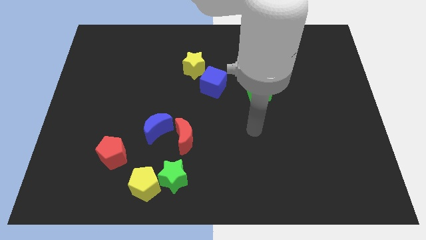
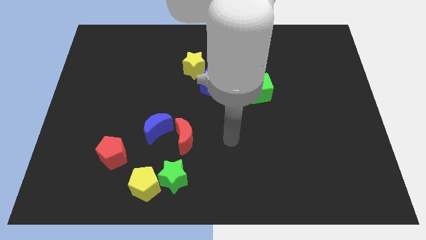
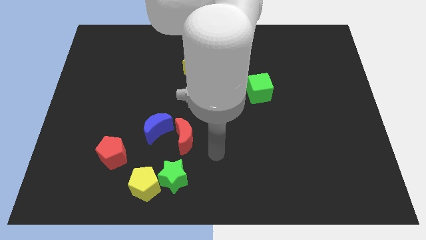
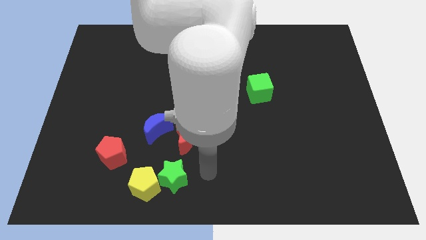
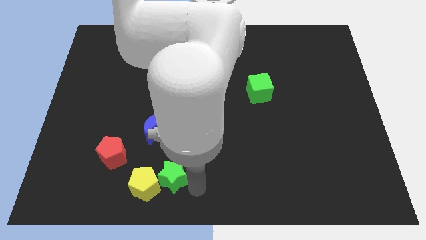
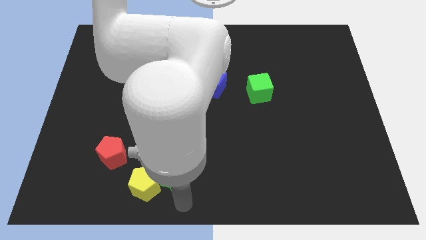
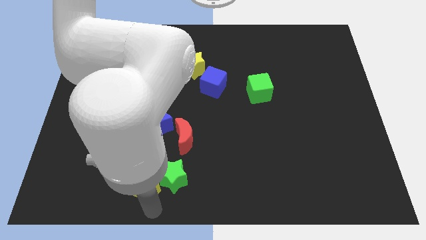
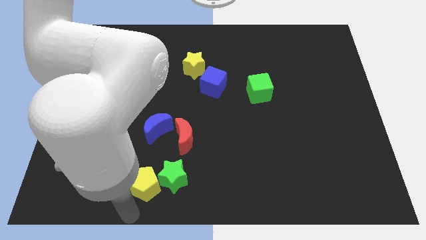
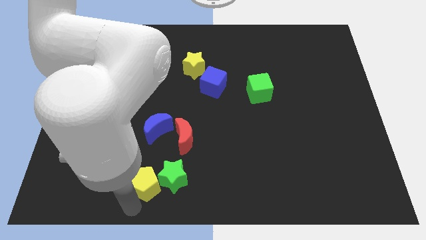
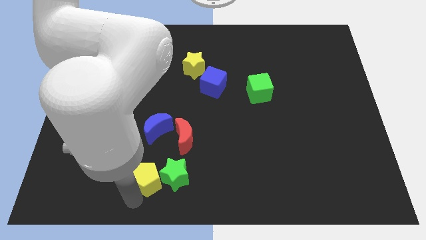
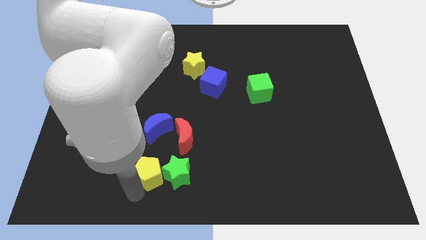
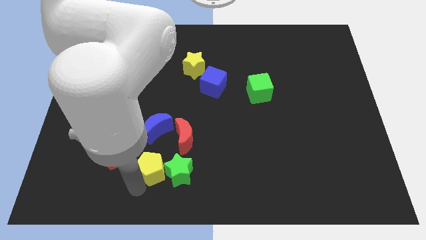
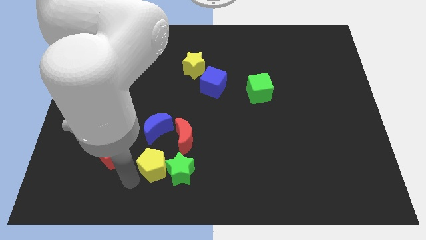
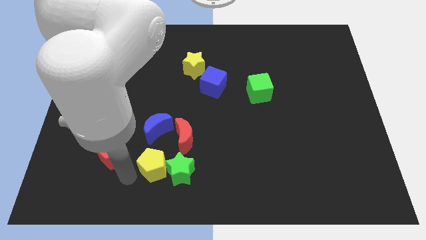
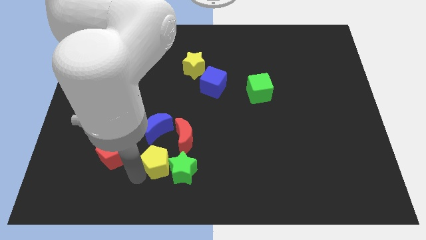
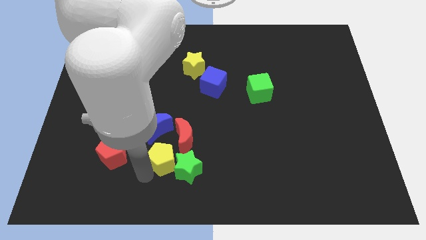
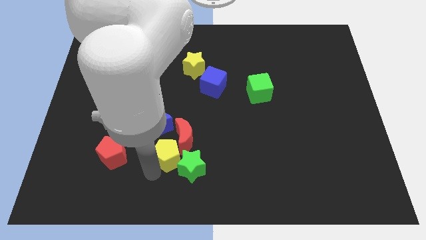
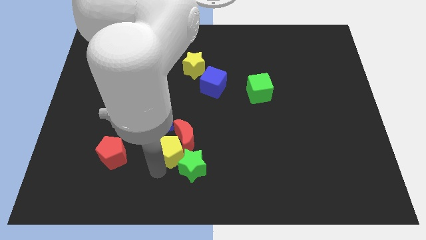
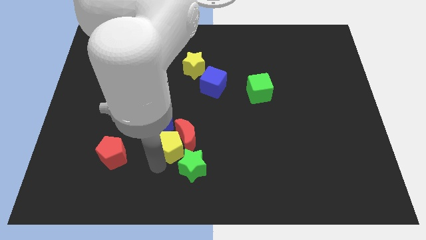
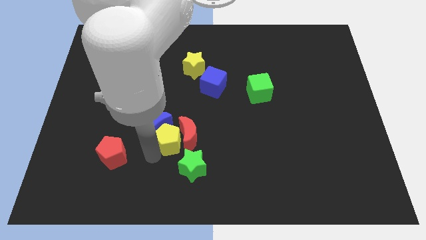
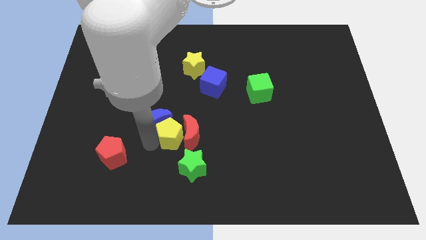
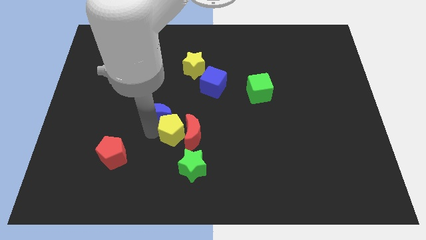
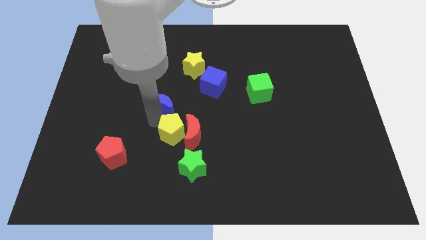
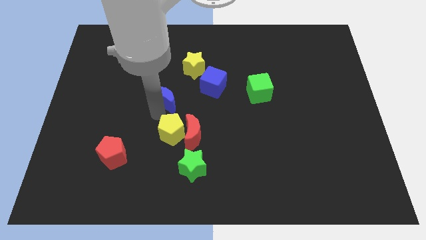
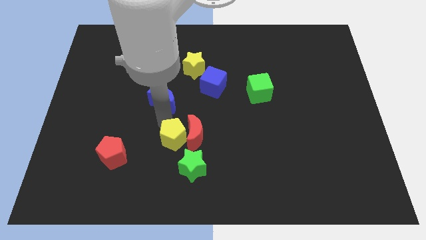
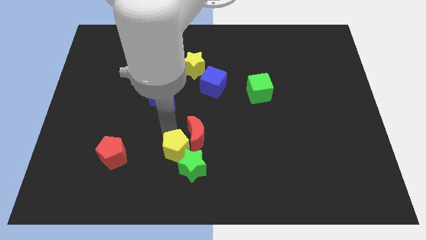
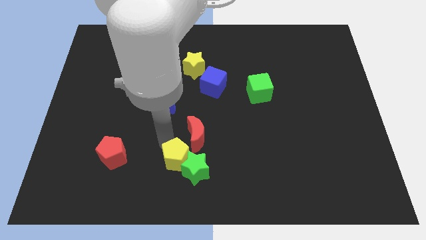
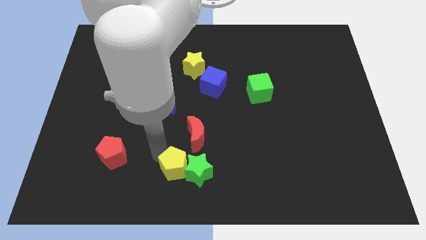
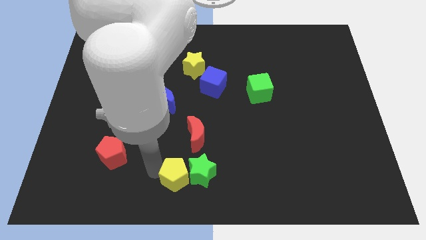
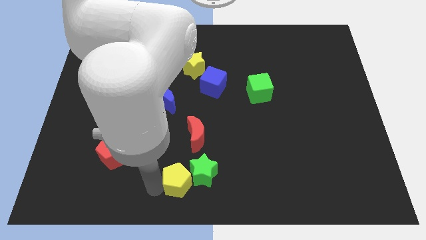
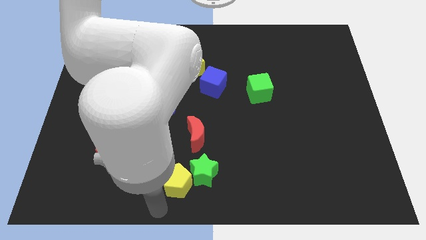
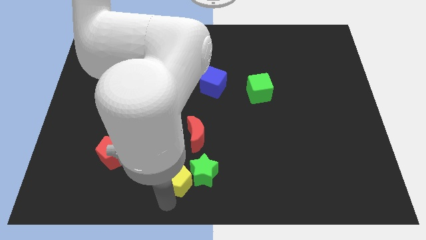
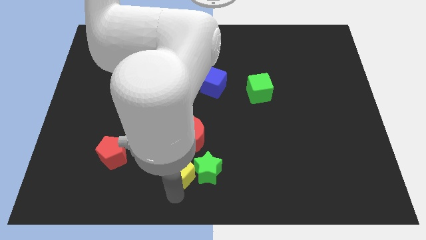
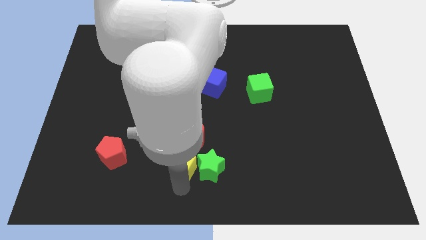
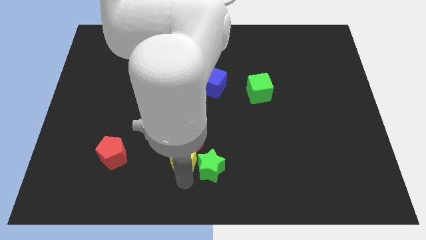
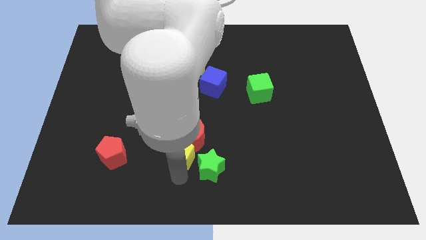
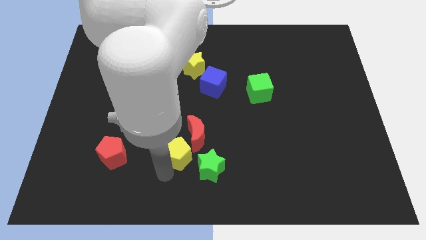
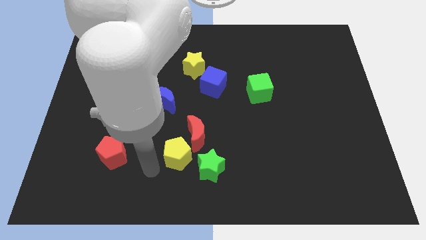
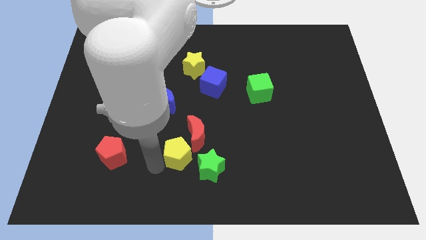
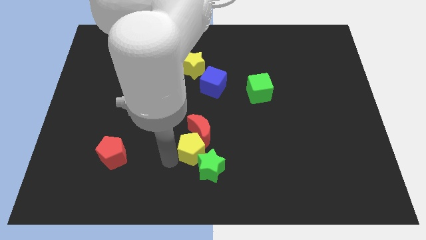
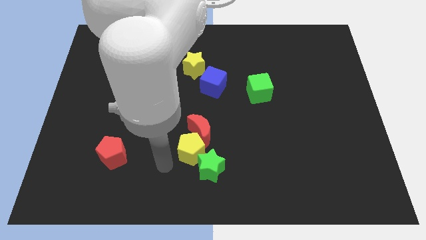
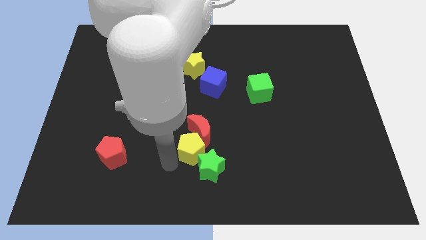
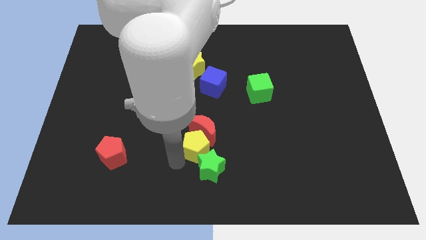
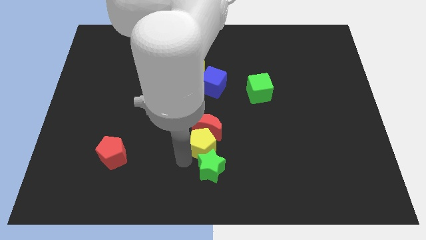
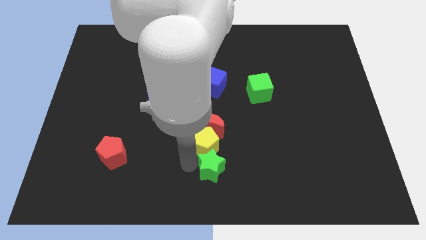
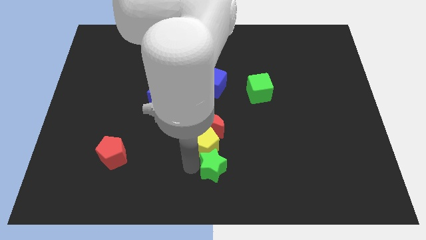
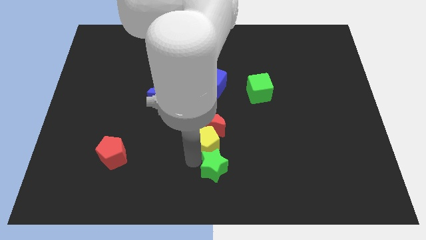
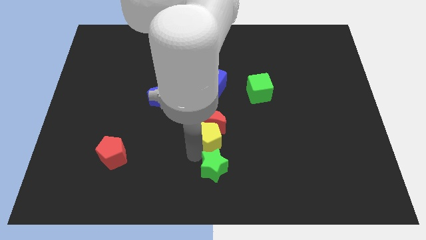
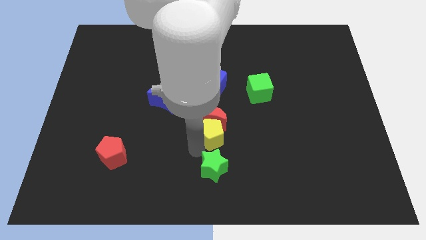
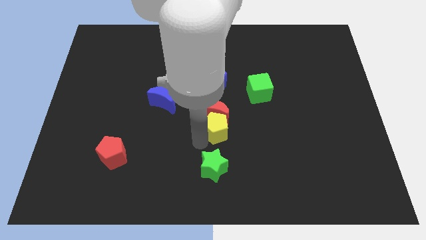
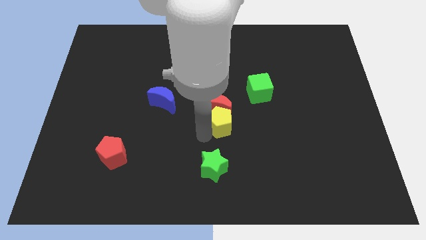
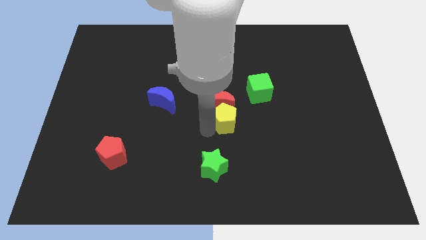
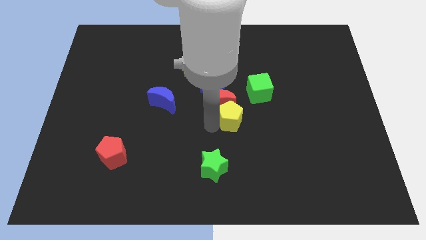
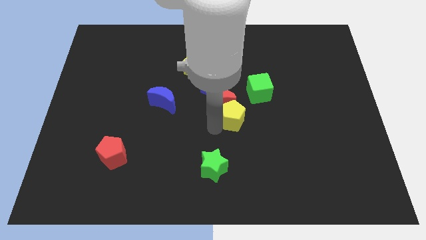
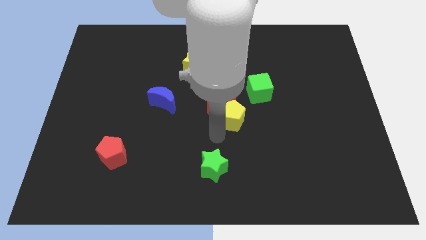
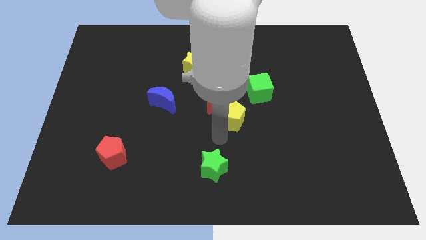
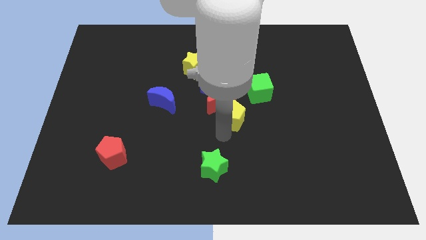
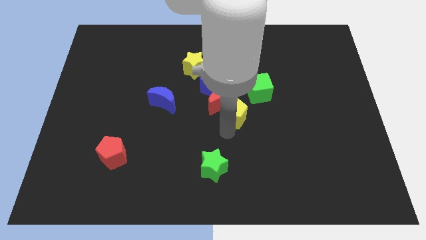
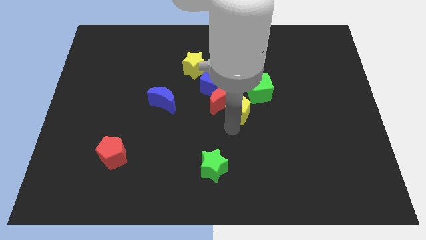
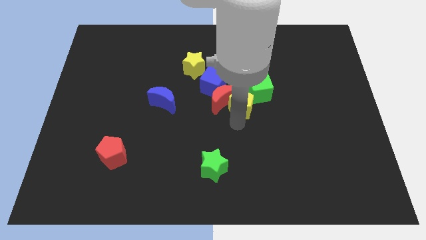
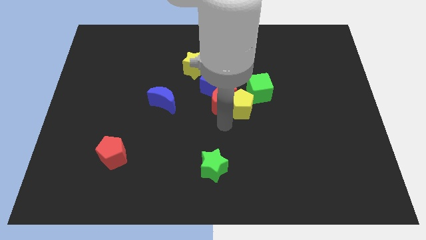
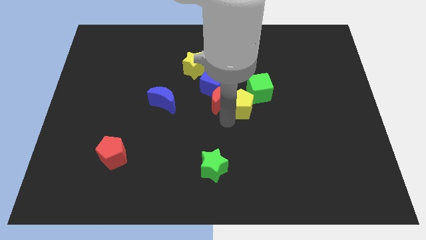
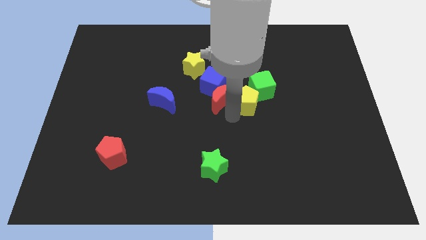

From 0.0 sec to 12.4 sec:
put the yellow pentagon close to the green cube

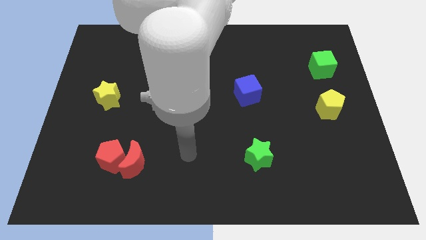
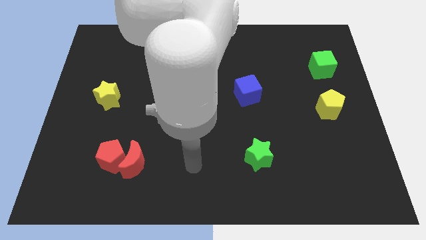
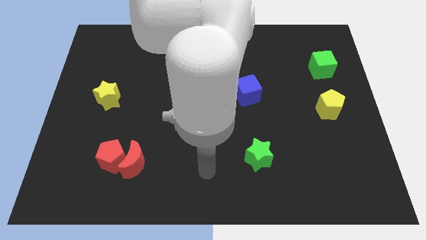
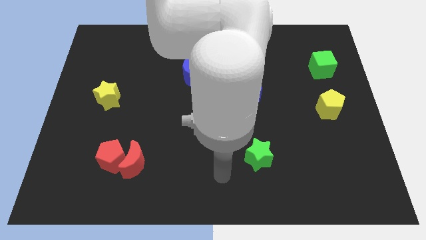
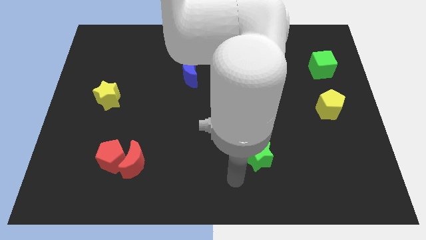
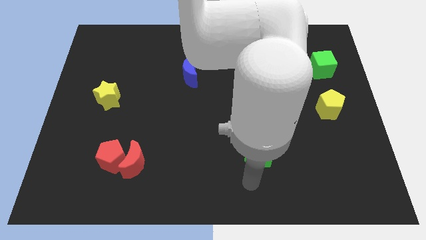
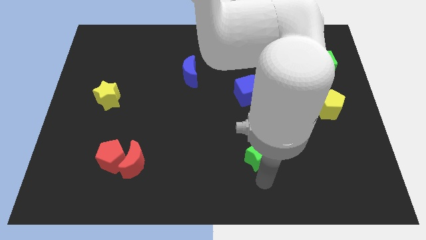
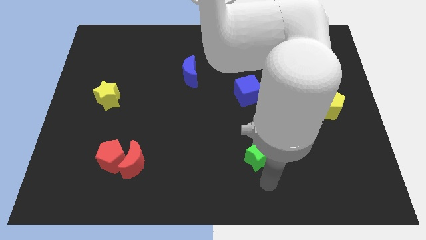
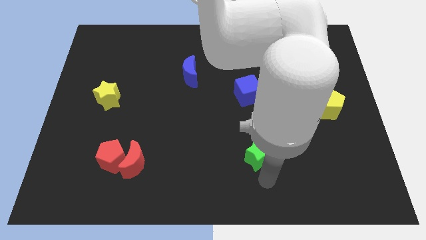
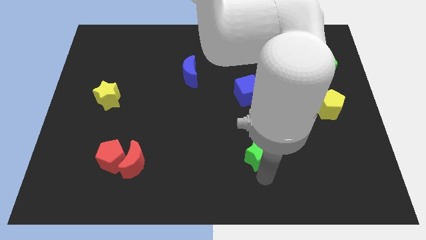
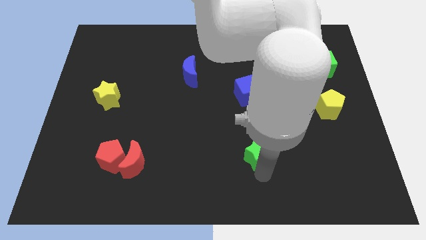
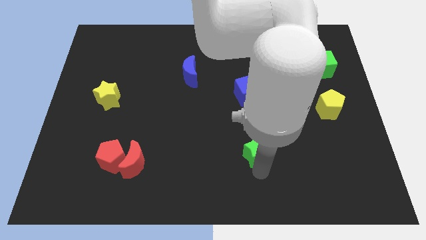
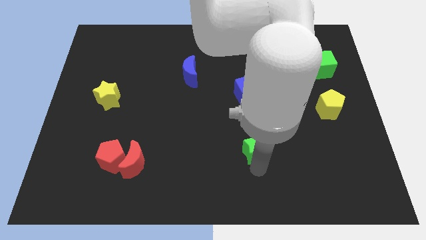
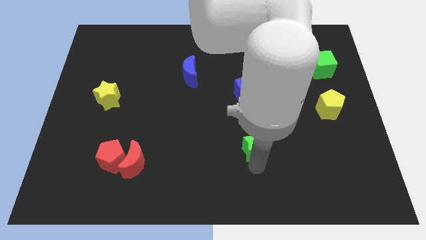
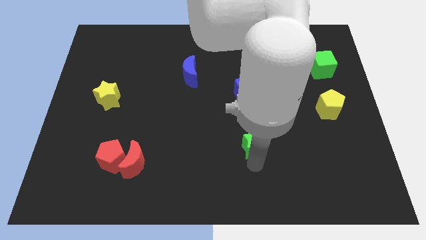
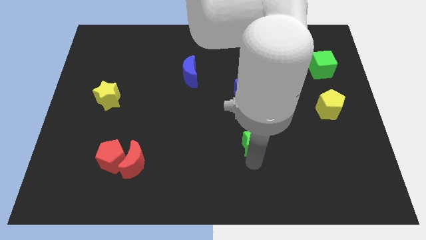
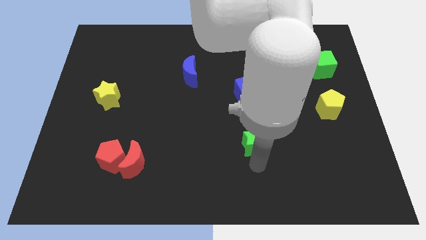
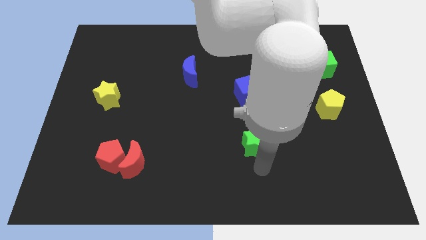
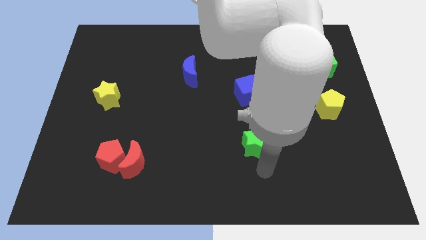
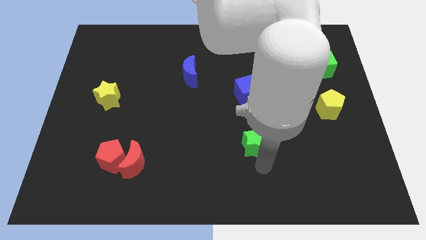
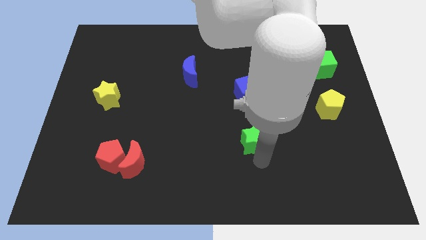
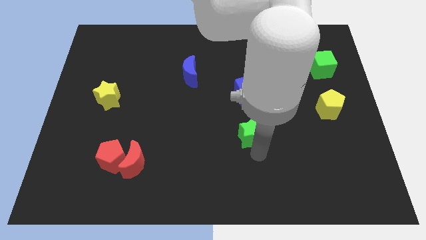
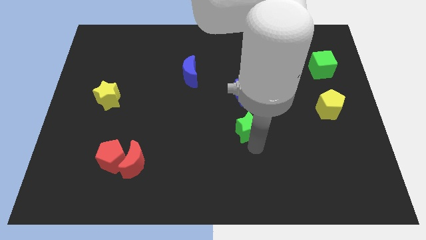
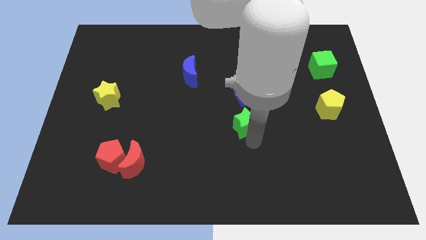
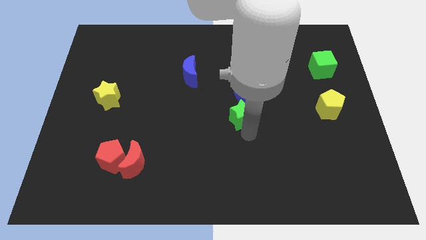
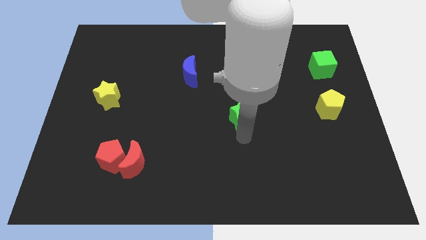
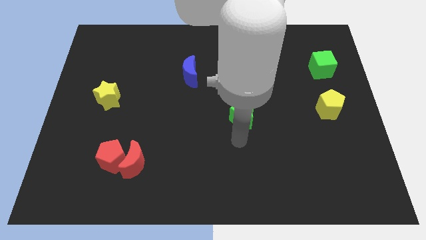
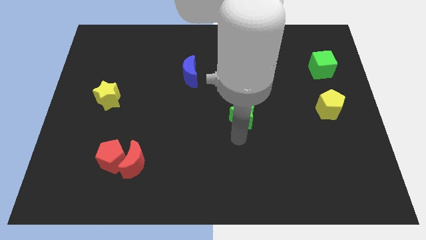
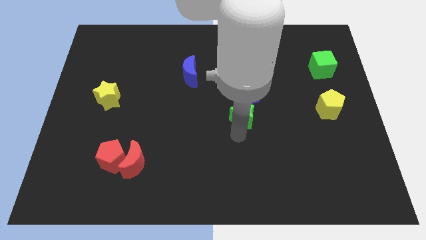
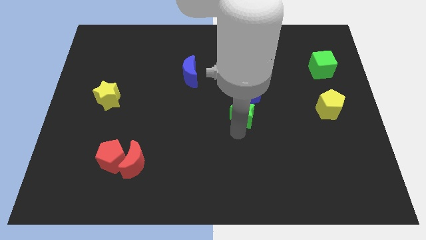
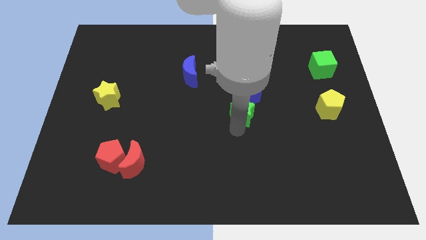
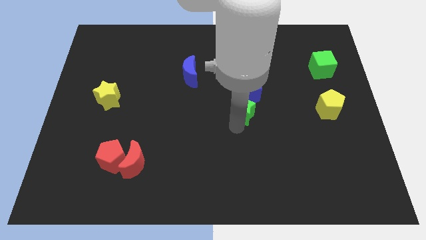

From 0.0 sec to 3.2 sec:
slide the green star close to the blue cube
